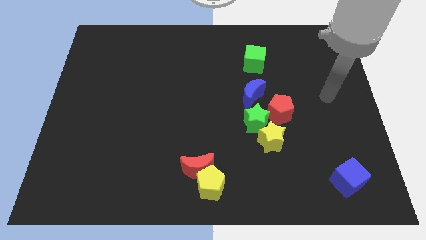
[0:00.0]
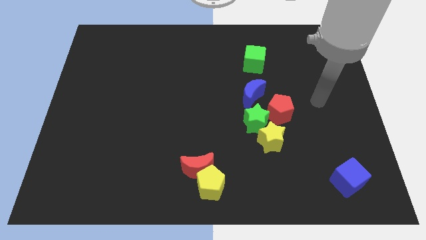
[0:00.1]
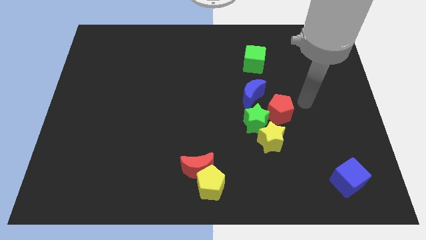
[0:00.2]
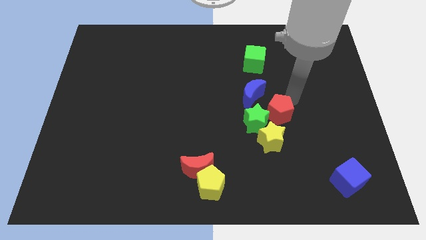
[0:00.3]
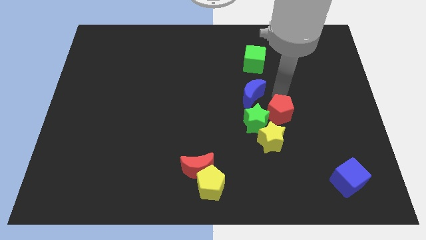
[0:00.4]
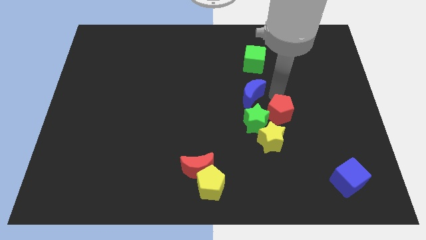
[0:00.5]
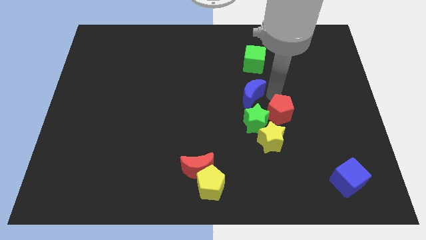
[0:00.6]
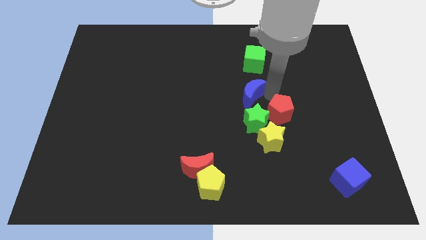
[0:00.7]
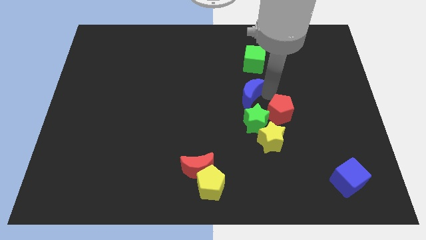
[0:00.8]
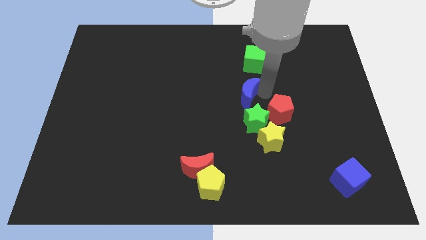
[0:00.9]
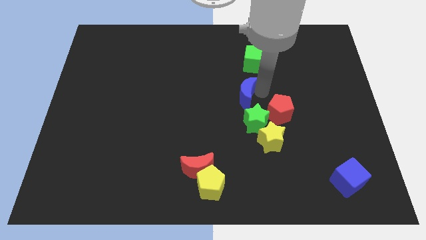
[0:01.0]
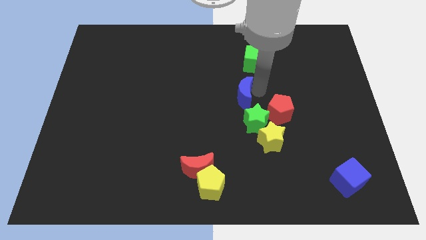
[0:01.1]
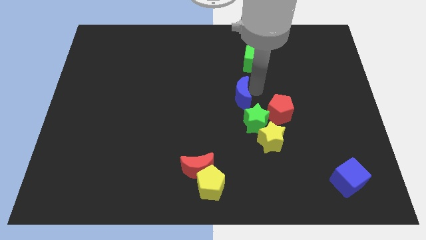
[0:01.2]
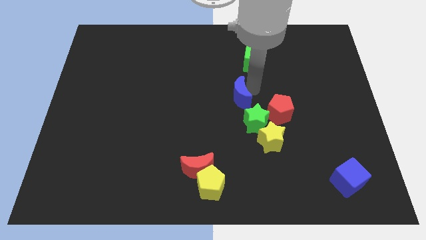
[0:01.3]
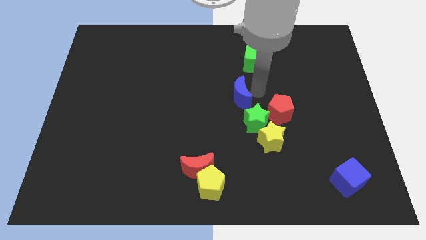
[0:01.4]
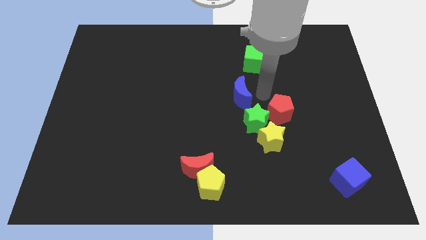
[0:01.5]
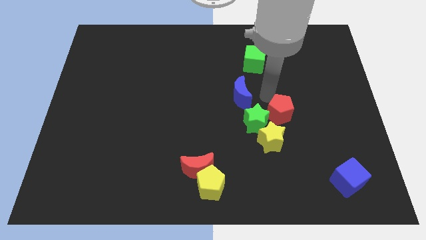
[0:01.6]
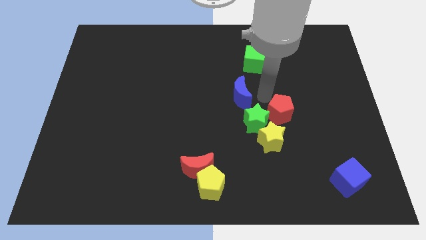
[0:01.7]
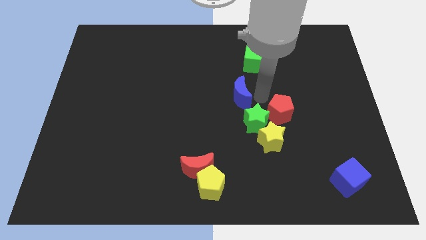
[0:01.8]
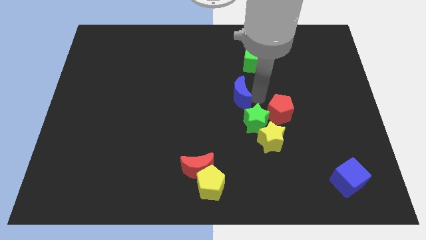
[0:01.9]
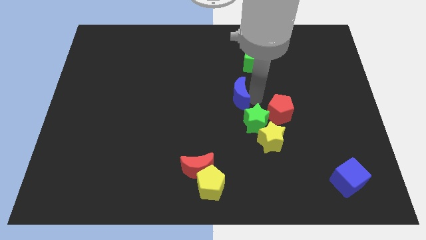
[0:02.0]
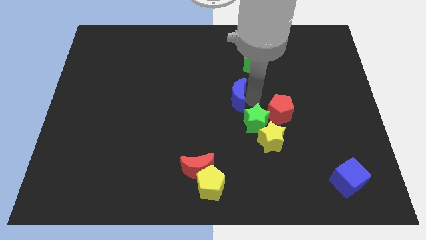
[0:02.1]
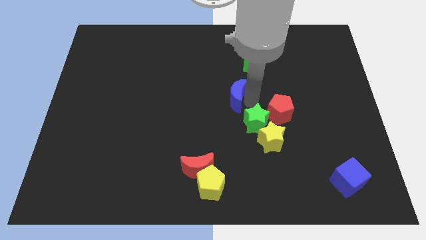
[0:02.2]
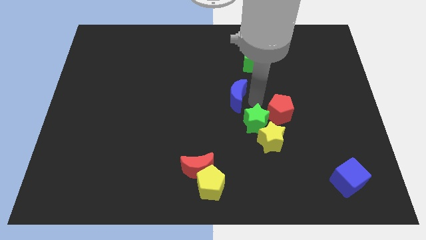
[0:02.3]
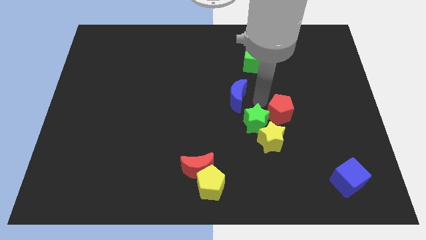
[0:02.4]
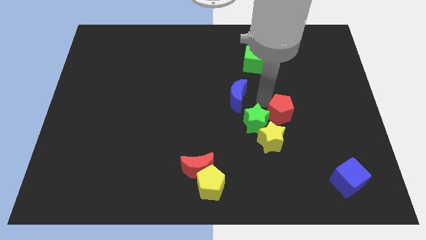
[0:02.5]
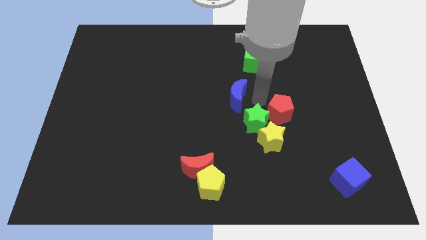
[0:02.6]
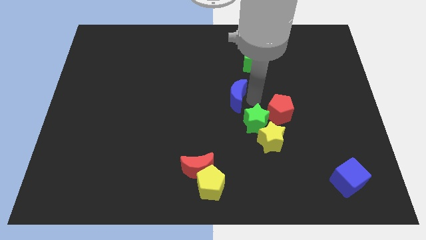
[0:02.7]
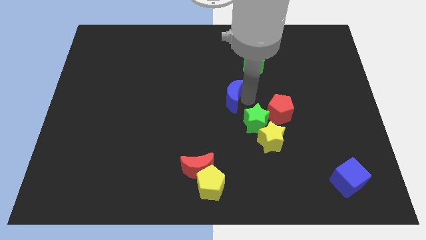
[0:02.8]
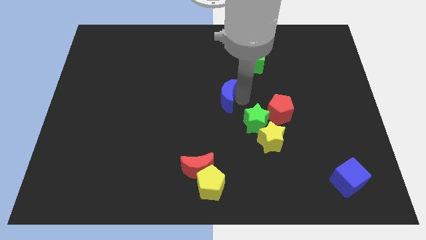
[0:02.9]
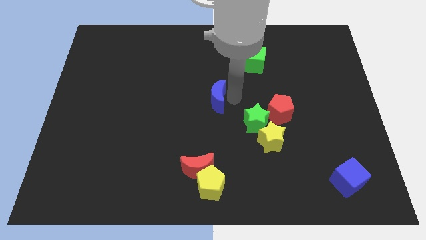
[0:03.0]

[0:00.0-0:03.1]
slide the blue moon a little left

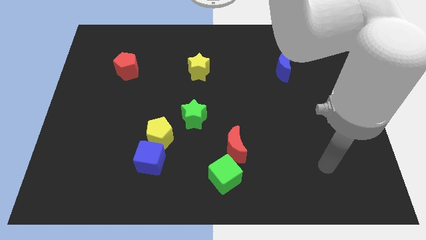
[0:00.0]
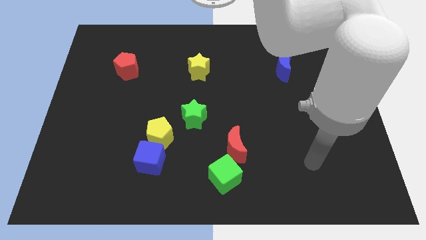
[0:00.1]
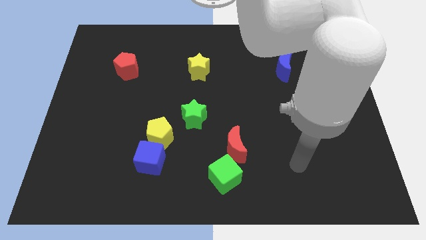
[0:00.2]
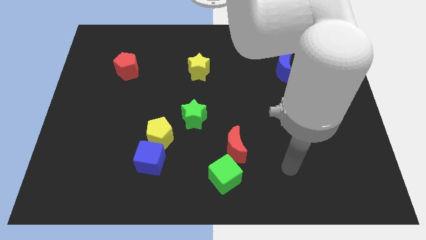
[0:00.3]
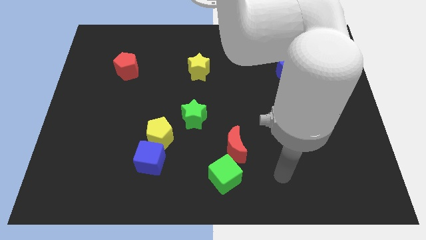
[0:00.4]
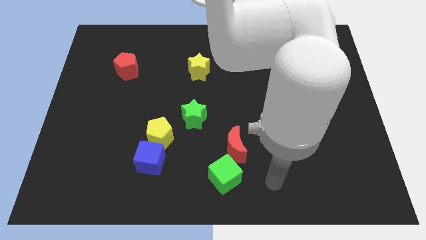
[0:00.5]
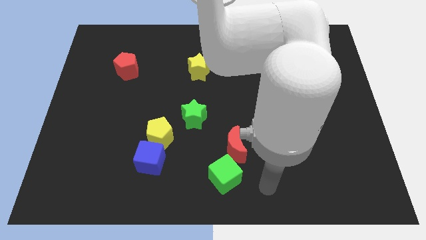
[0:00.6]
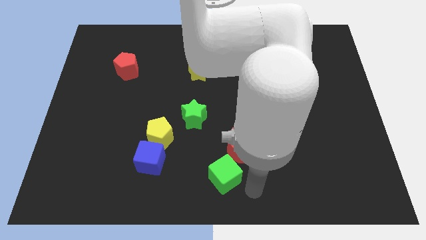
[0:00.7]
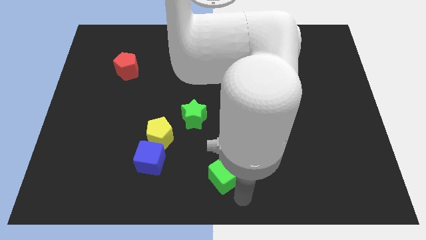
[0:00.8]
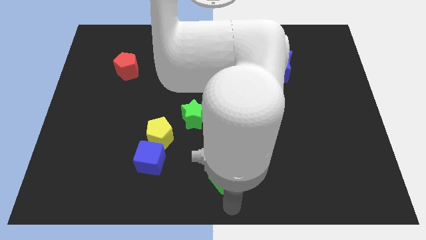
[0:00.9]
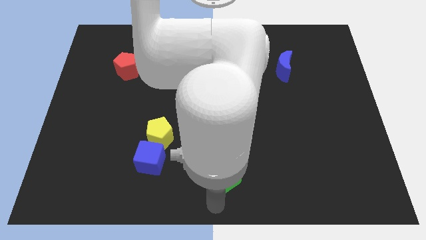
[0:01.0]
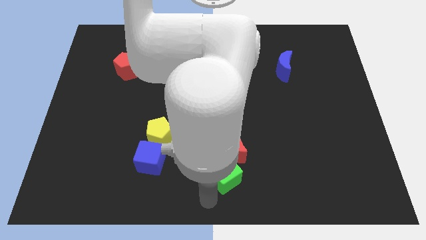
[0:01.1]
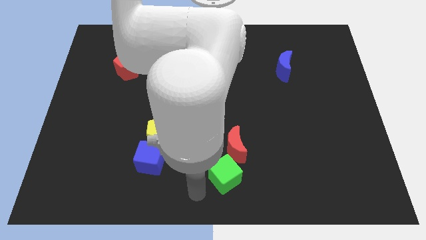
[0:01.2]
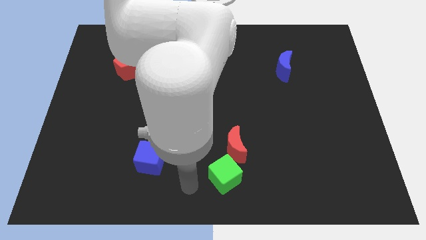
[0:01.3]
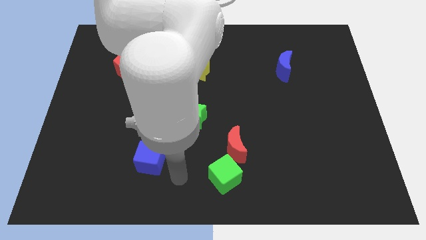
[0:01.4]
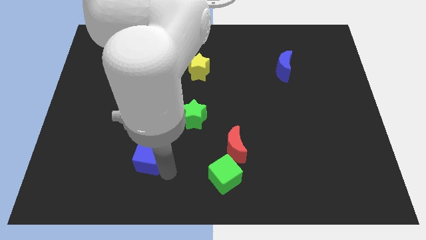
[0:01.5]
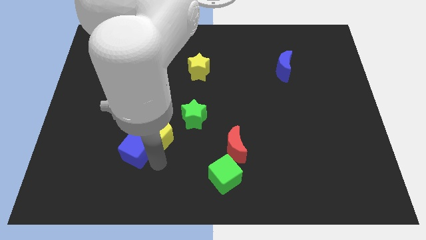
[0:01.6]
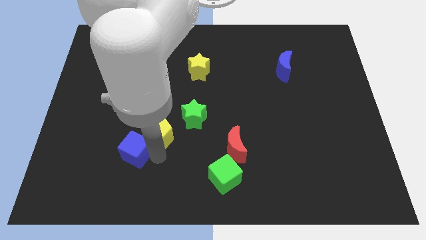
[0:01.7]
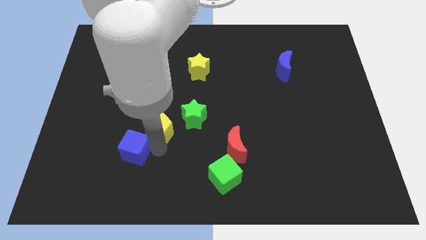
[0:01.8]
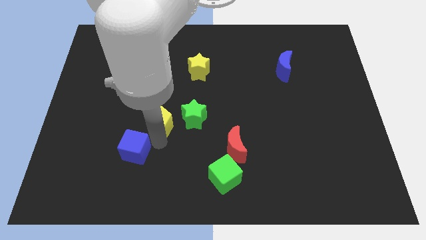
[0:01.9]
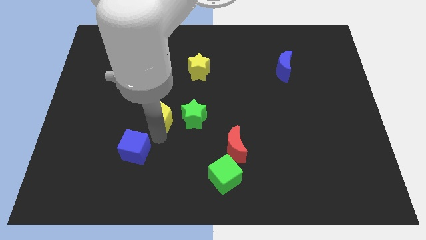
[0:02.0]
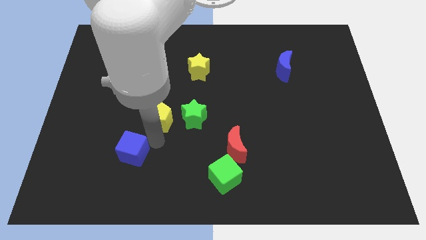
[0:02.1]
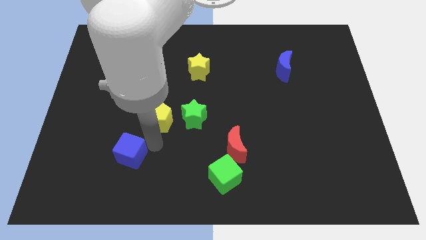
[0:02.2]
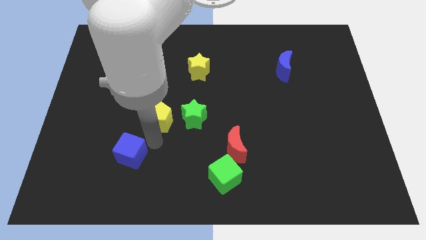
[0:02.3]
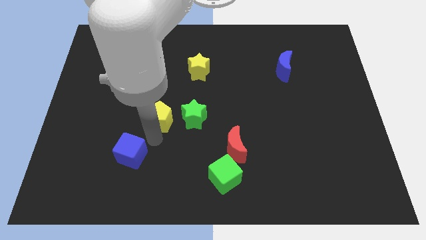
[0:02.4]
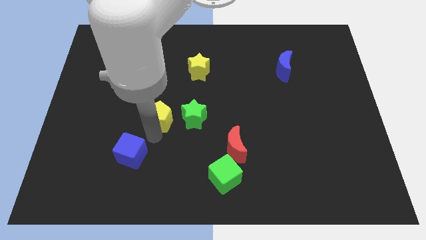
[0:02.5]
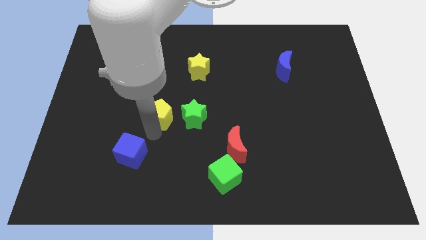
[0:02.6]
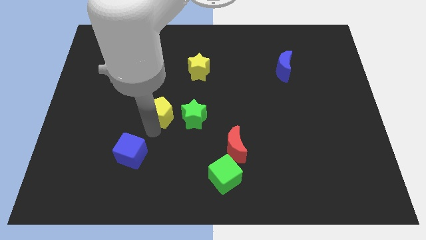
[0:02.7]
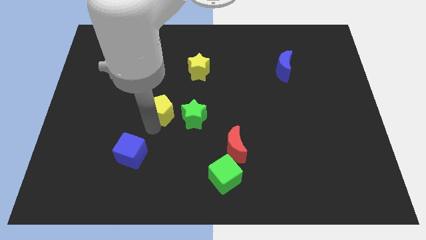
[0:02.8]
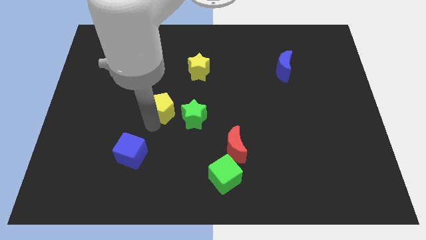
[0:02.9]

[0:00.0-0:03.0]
move the yellow pentagon a bit upwards

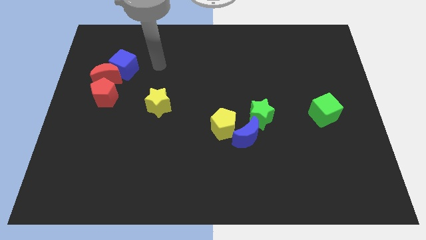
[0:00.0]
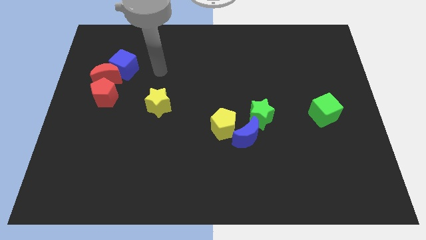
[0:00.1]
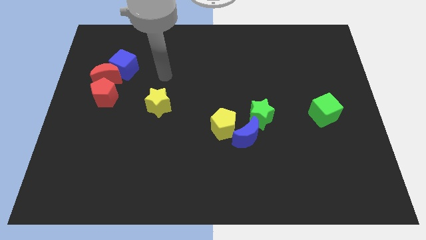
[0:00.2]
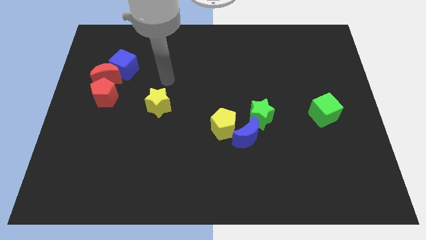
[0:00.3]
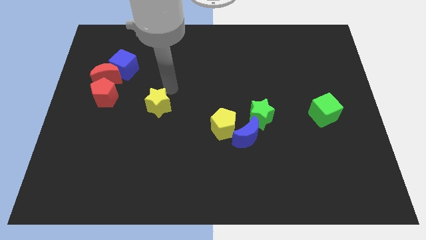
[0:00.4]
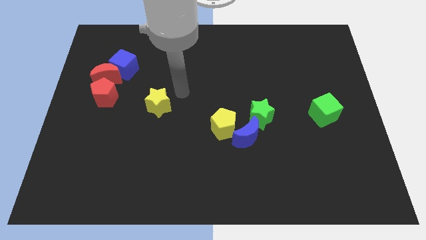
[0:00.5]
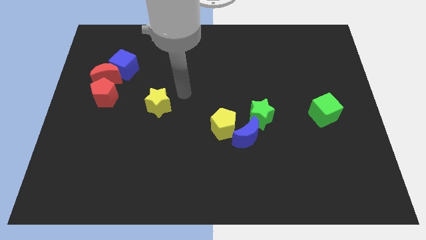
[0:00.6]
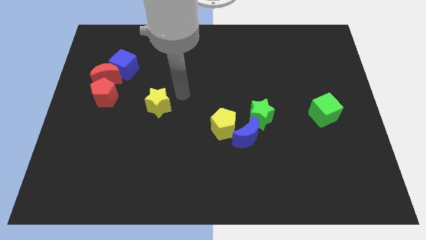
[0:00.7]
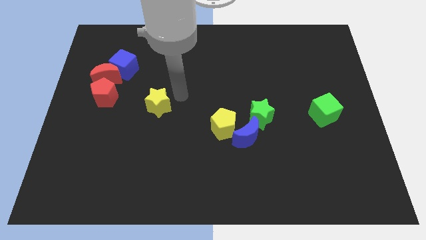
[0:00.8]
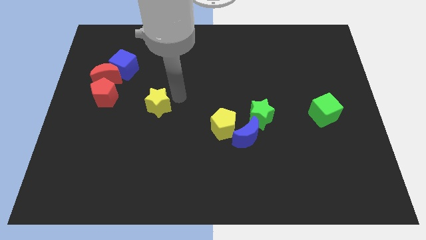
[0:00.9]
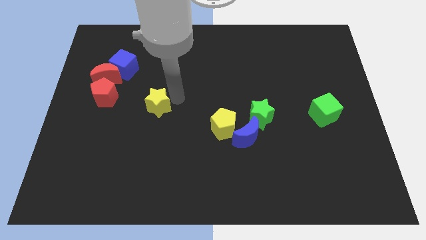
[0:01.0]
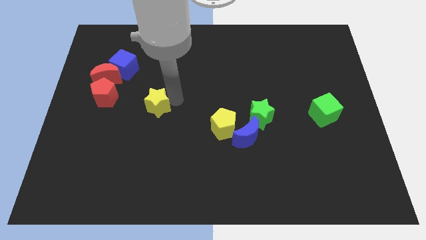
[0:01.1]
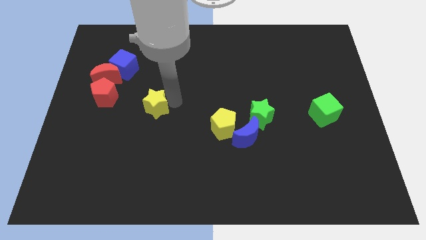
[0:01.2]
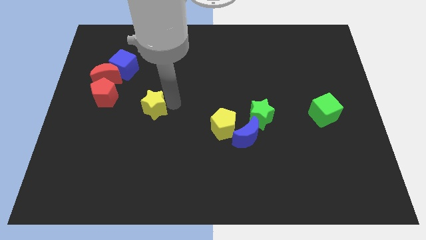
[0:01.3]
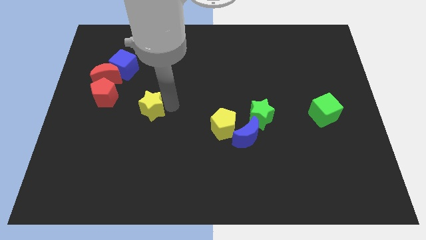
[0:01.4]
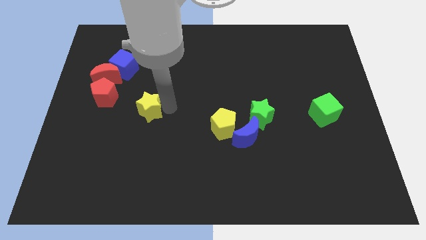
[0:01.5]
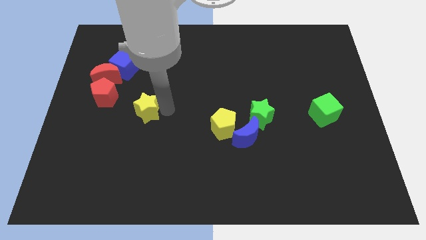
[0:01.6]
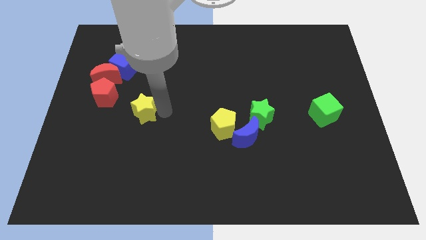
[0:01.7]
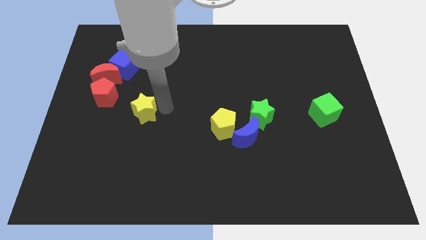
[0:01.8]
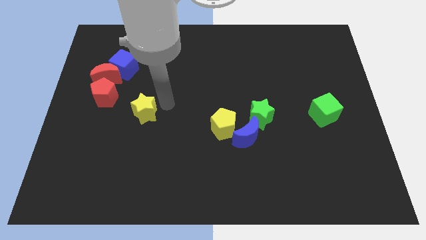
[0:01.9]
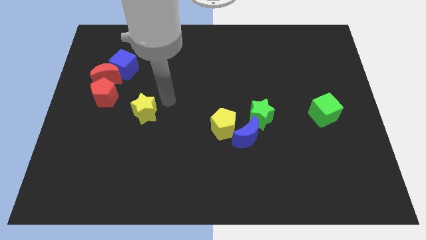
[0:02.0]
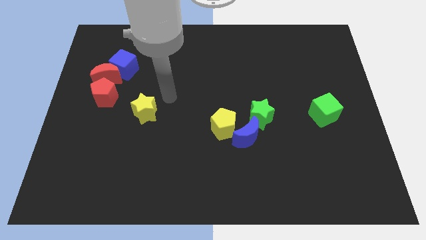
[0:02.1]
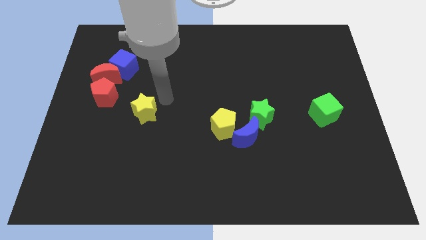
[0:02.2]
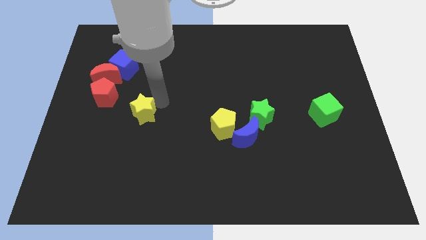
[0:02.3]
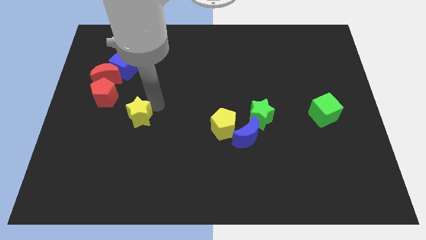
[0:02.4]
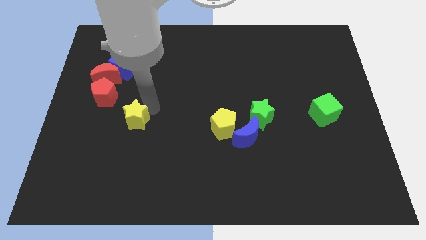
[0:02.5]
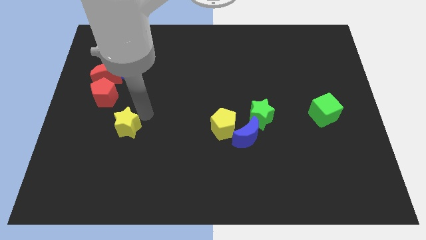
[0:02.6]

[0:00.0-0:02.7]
slide the yellow star a little downwards and to the left diagonally
